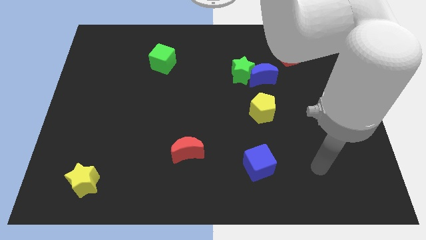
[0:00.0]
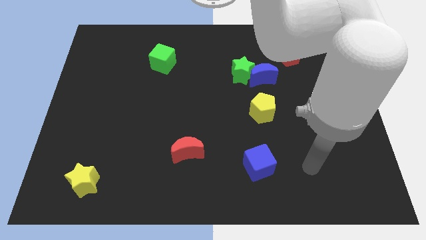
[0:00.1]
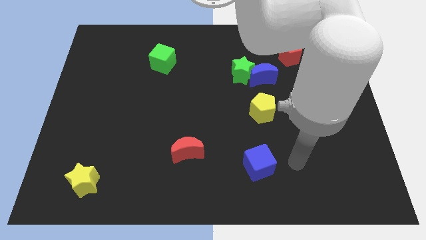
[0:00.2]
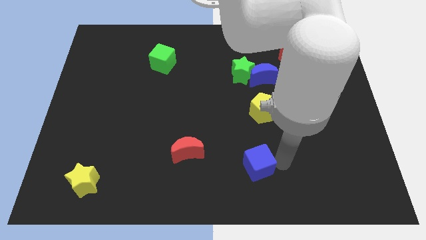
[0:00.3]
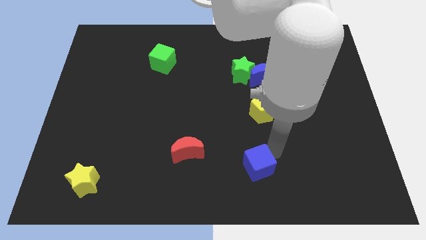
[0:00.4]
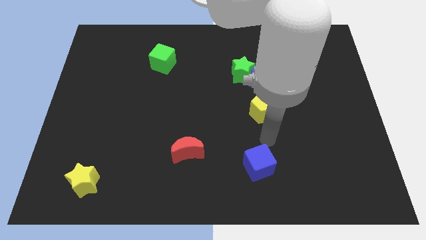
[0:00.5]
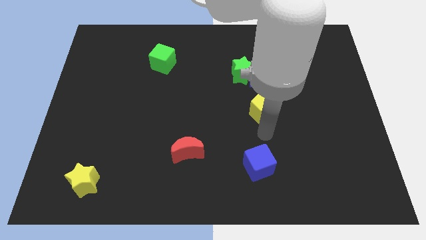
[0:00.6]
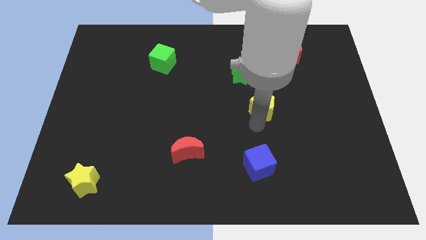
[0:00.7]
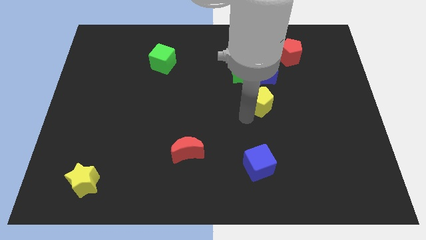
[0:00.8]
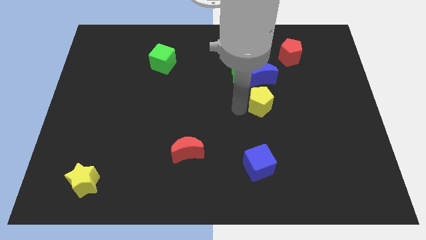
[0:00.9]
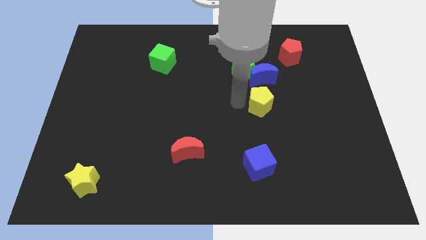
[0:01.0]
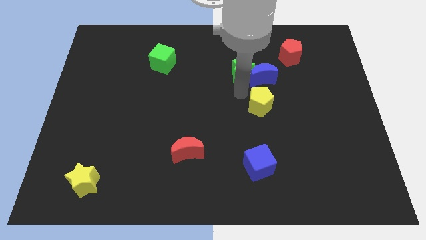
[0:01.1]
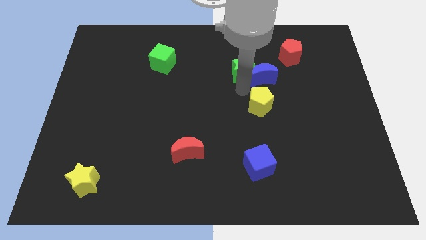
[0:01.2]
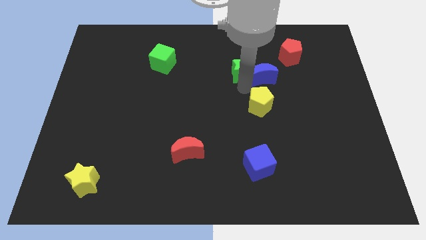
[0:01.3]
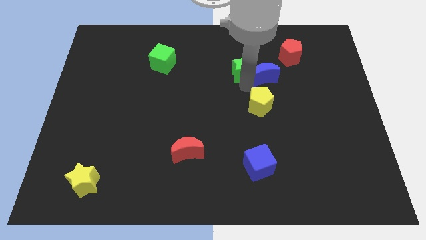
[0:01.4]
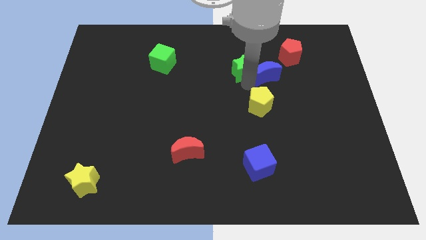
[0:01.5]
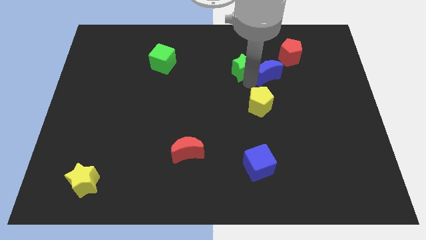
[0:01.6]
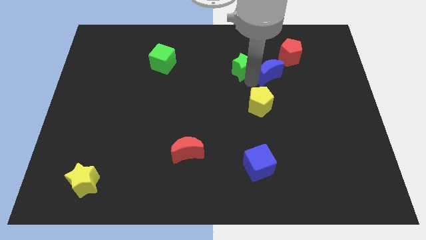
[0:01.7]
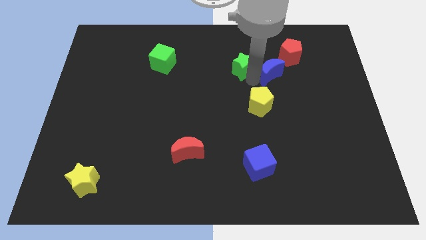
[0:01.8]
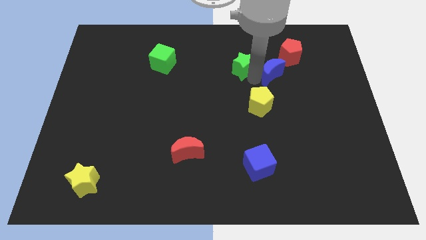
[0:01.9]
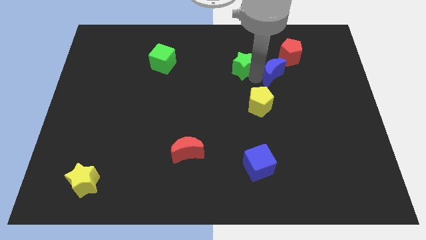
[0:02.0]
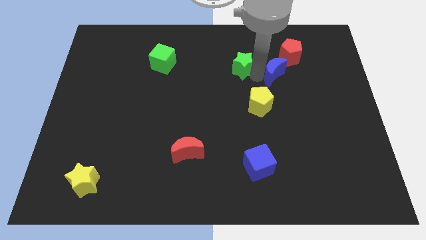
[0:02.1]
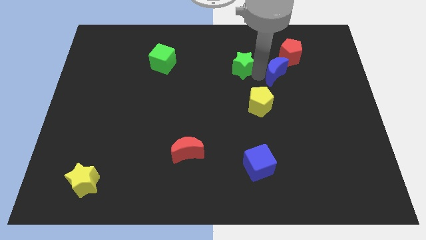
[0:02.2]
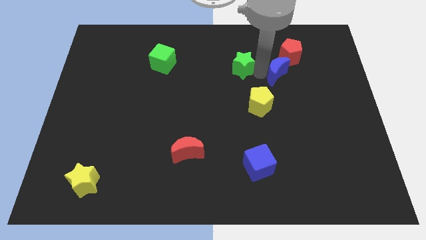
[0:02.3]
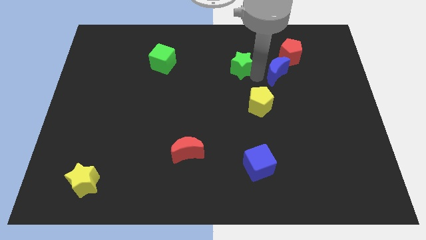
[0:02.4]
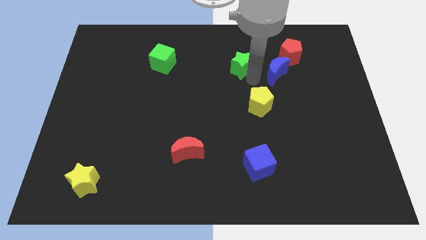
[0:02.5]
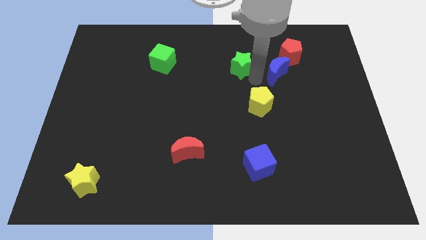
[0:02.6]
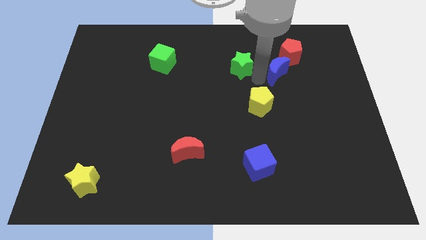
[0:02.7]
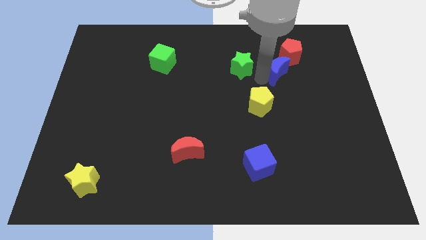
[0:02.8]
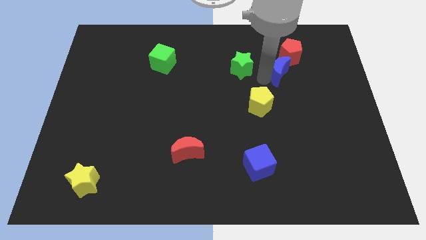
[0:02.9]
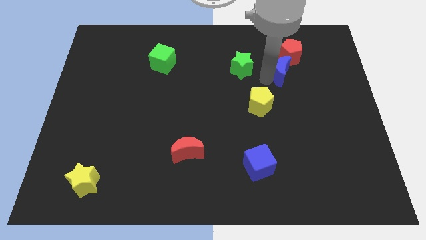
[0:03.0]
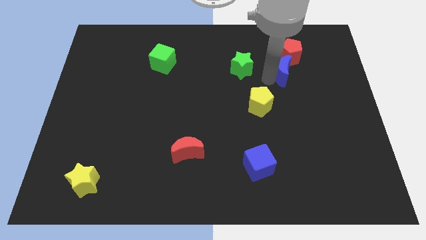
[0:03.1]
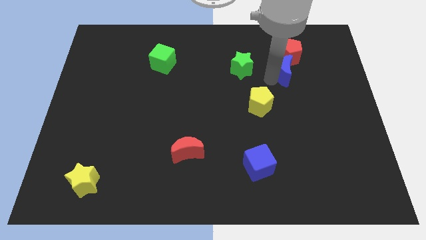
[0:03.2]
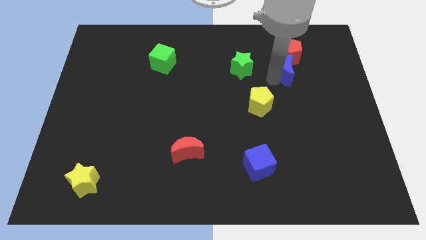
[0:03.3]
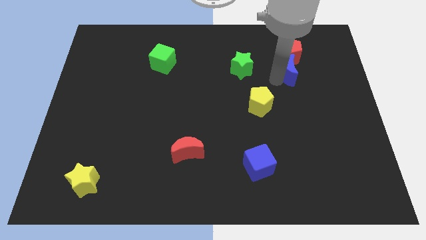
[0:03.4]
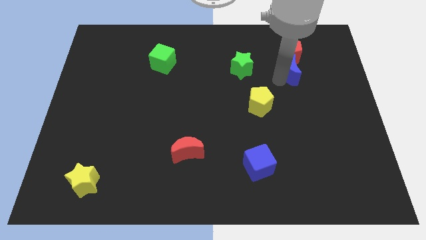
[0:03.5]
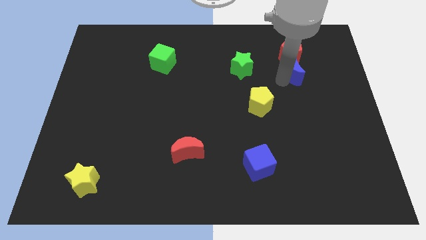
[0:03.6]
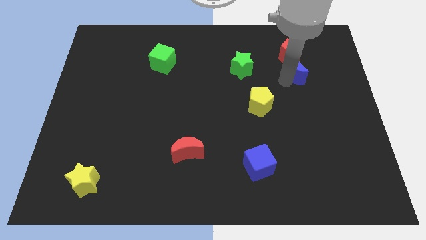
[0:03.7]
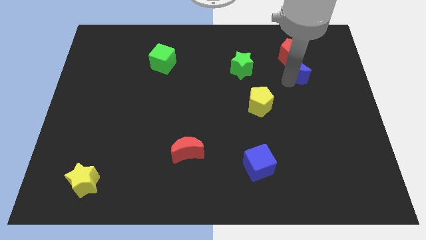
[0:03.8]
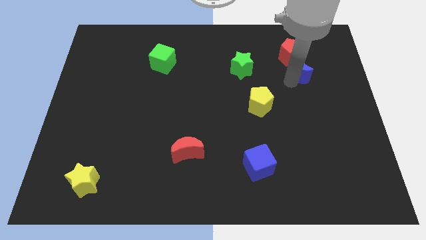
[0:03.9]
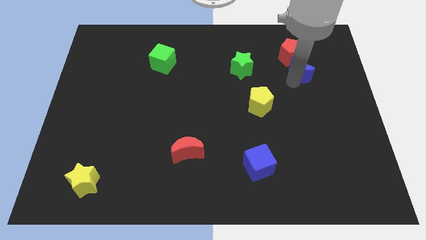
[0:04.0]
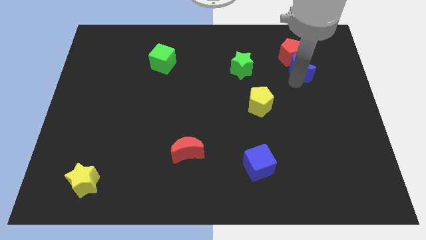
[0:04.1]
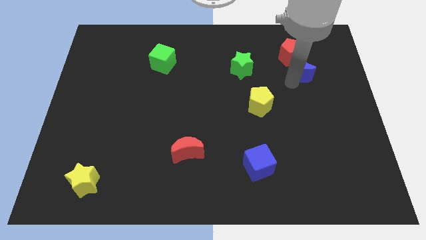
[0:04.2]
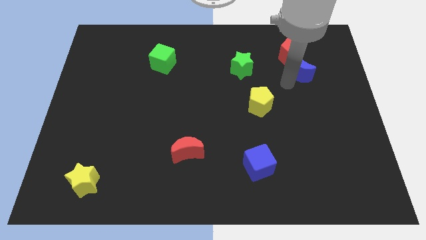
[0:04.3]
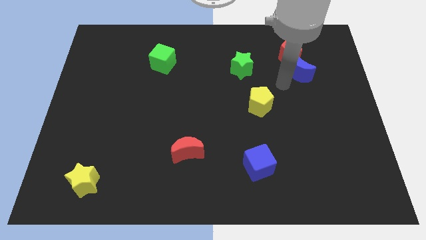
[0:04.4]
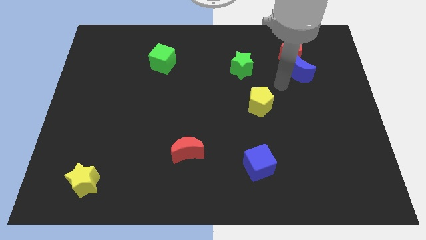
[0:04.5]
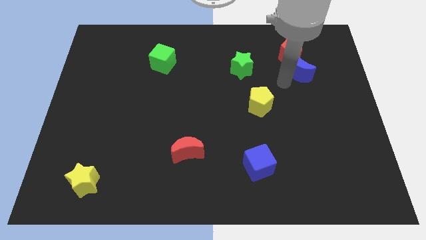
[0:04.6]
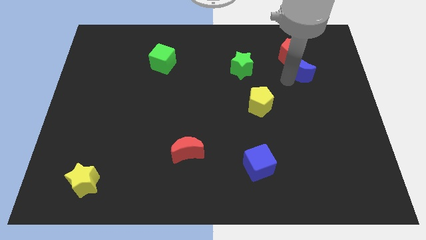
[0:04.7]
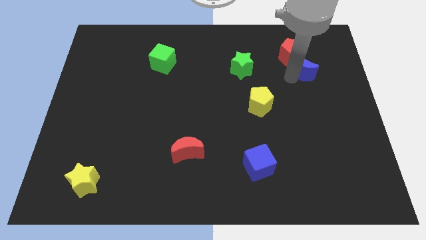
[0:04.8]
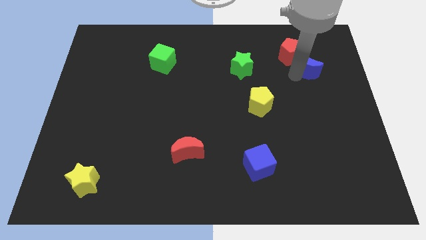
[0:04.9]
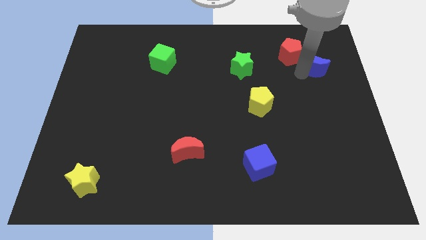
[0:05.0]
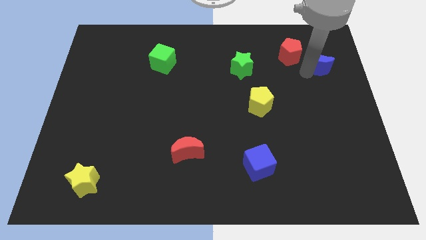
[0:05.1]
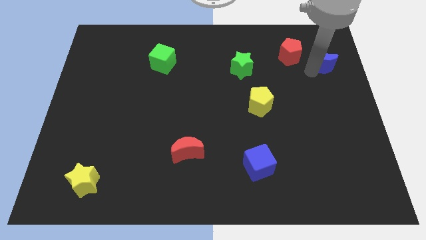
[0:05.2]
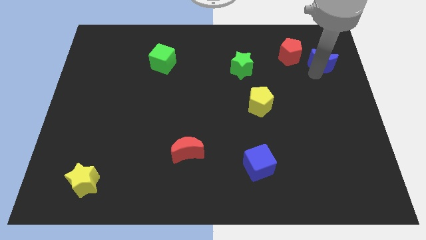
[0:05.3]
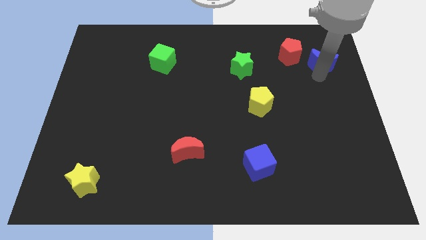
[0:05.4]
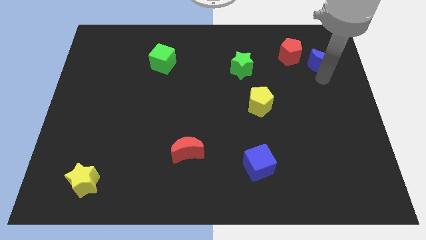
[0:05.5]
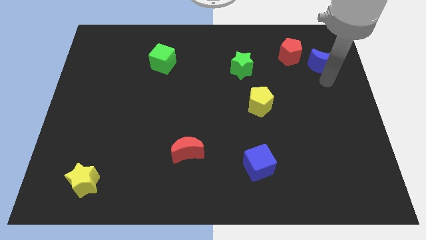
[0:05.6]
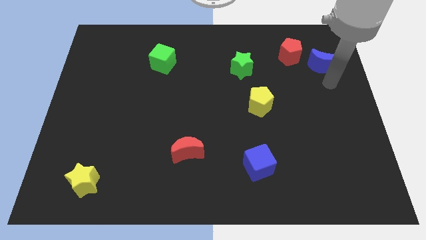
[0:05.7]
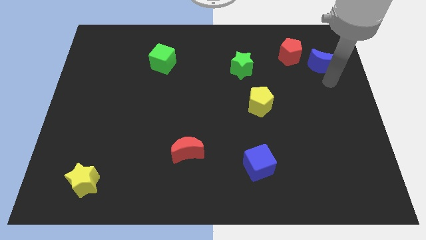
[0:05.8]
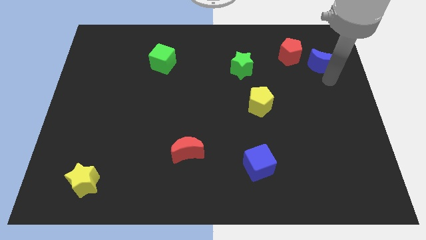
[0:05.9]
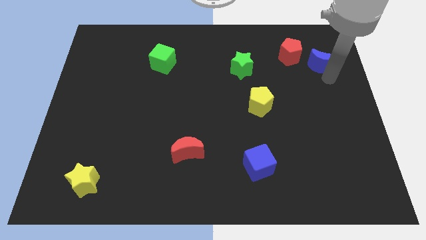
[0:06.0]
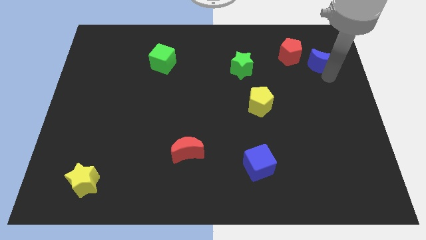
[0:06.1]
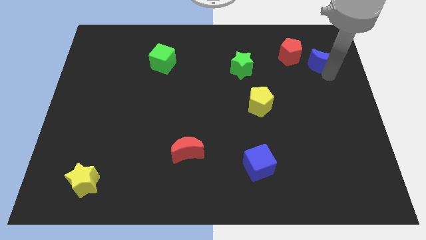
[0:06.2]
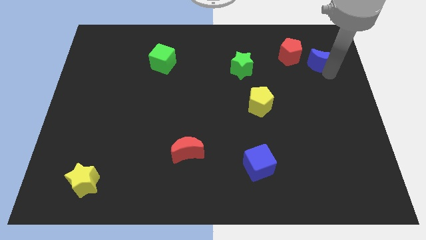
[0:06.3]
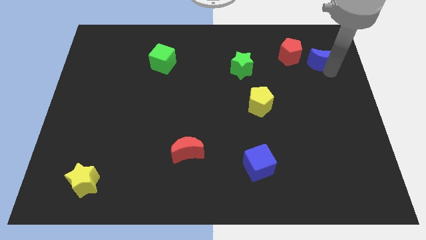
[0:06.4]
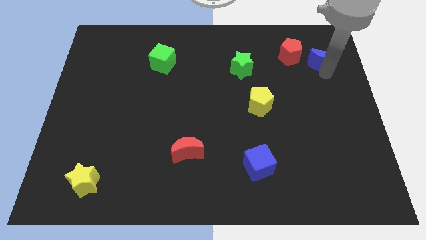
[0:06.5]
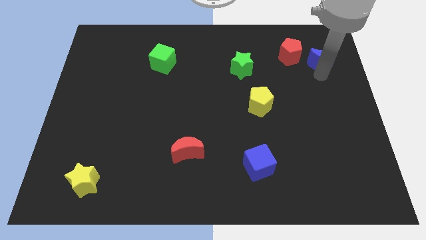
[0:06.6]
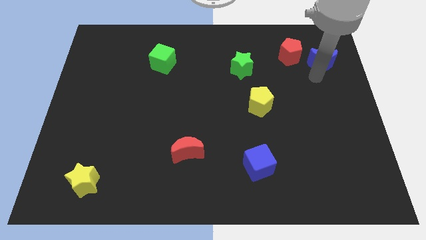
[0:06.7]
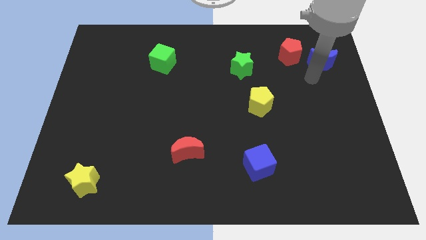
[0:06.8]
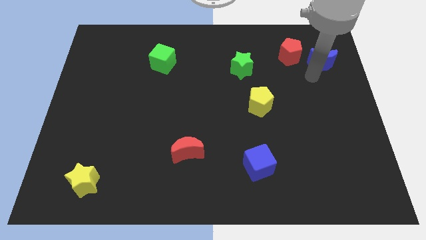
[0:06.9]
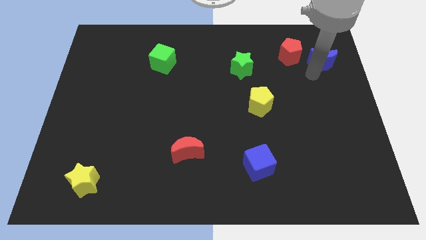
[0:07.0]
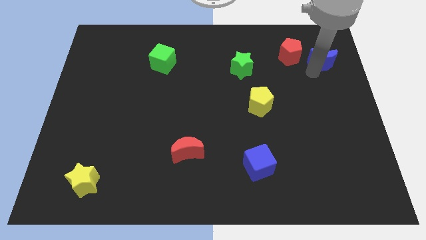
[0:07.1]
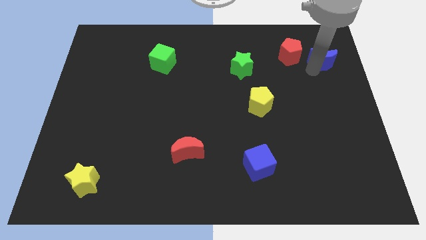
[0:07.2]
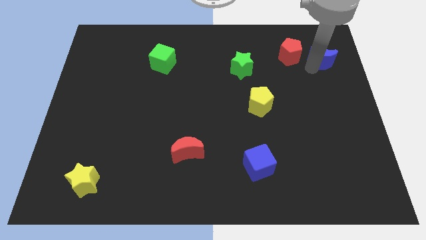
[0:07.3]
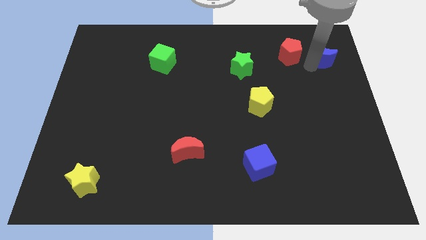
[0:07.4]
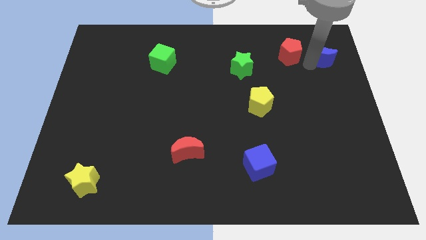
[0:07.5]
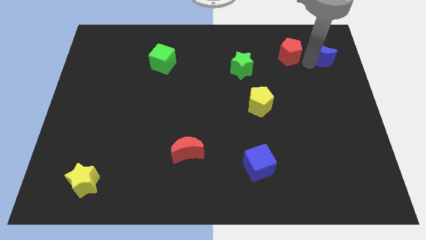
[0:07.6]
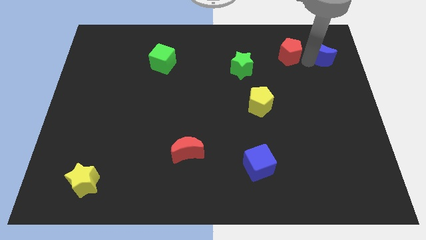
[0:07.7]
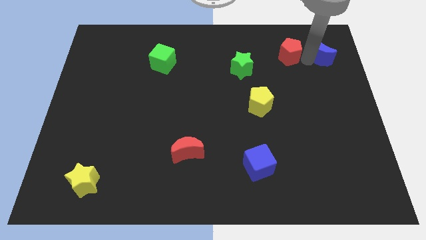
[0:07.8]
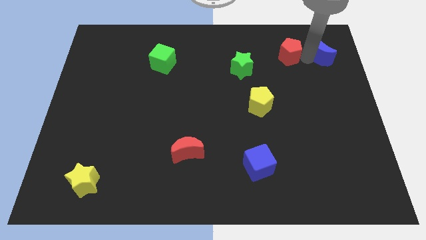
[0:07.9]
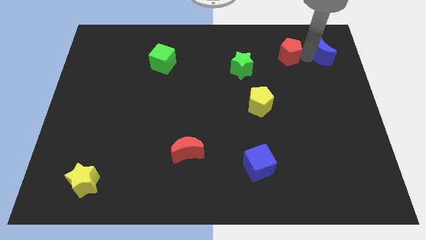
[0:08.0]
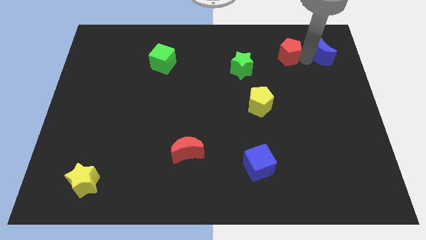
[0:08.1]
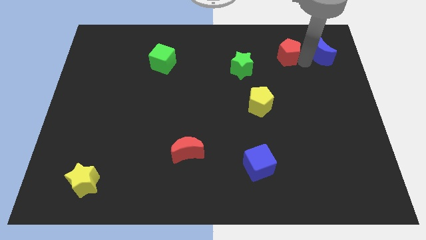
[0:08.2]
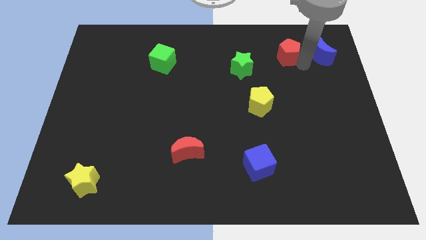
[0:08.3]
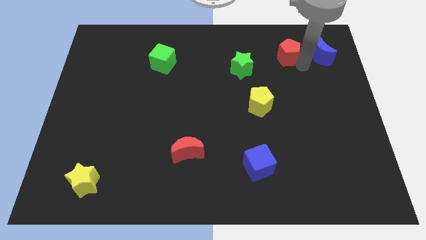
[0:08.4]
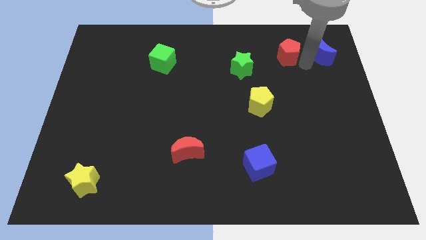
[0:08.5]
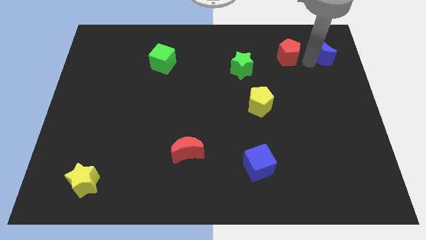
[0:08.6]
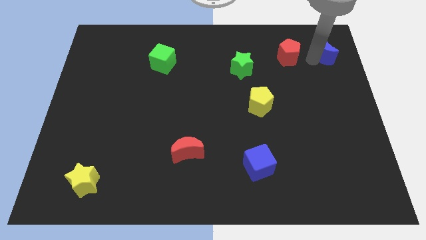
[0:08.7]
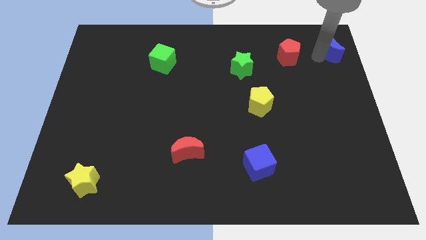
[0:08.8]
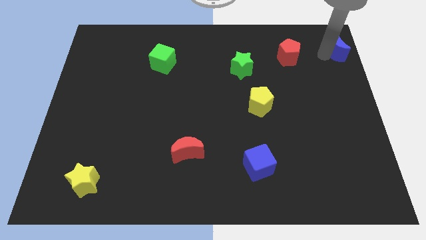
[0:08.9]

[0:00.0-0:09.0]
slide the blue moon to the upper right corner
